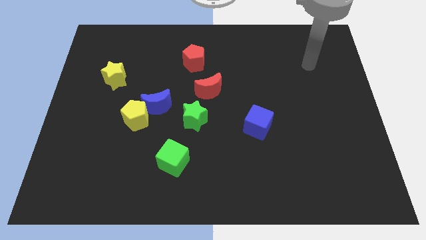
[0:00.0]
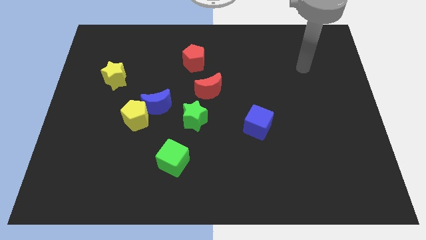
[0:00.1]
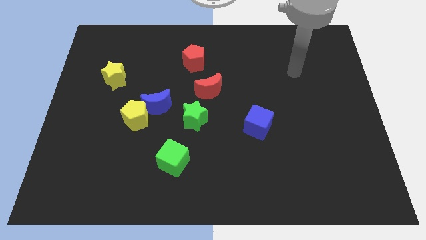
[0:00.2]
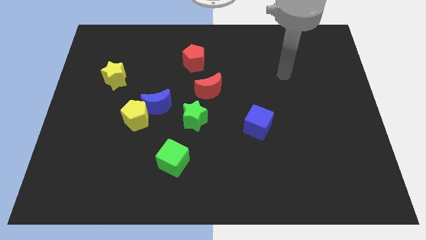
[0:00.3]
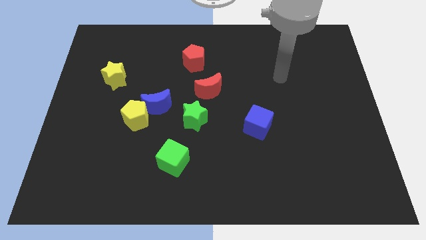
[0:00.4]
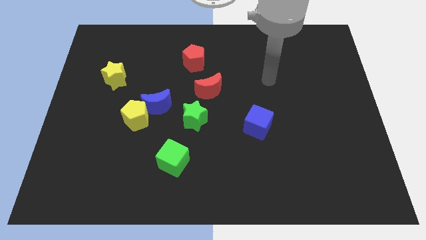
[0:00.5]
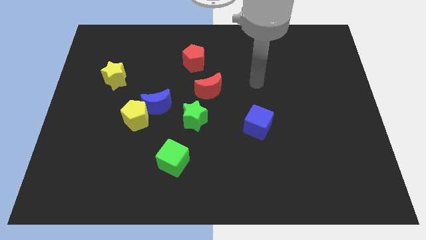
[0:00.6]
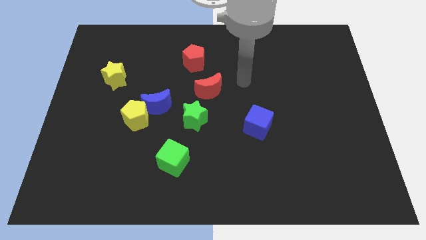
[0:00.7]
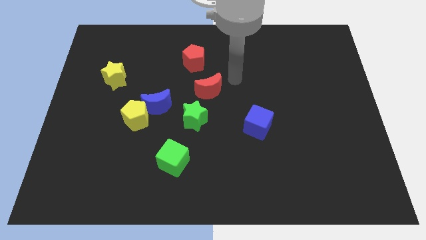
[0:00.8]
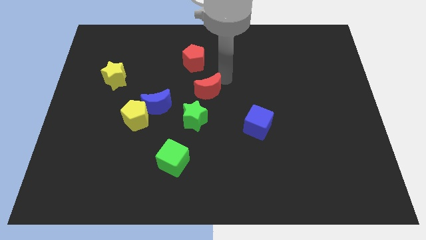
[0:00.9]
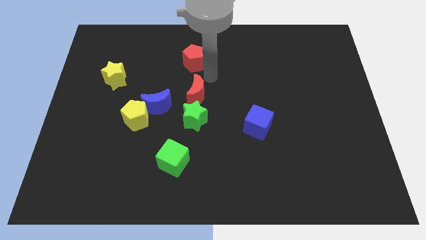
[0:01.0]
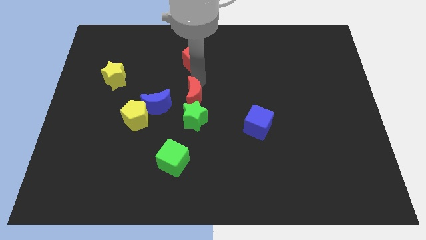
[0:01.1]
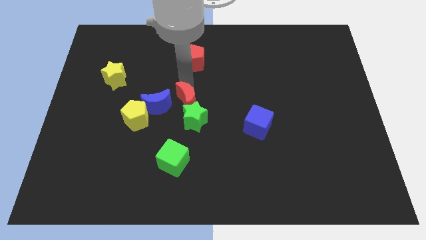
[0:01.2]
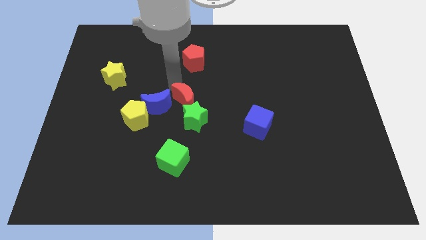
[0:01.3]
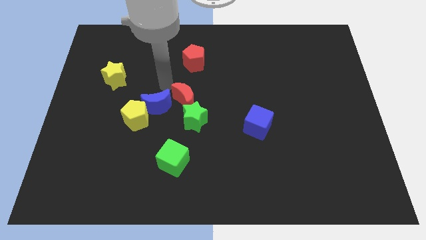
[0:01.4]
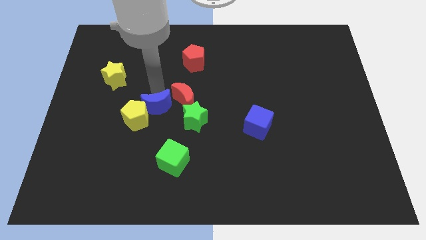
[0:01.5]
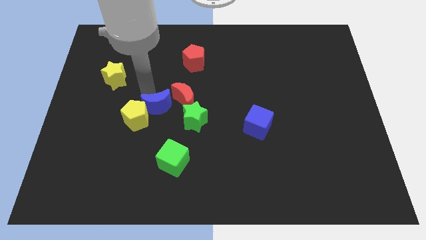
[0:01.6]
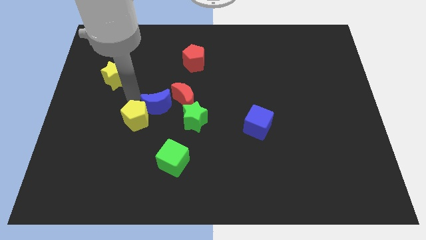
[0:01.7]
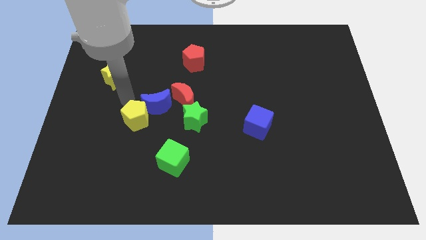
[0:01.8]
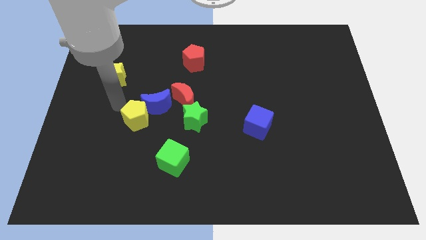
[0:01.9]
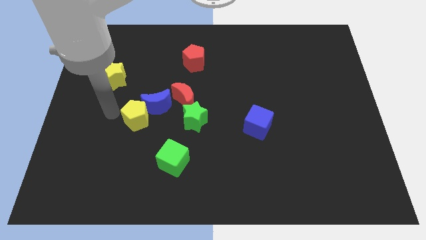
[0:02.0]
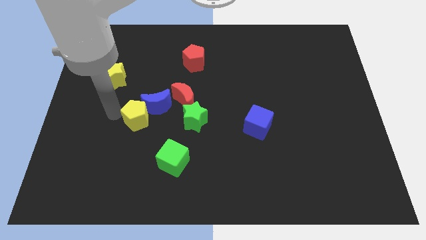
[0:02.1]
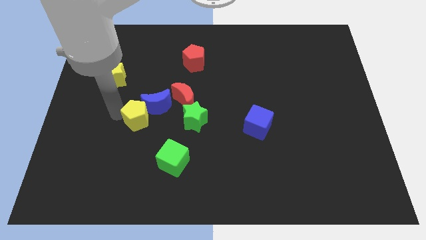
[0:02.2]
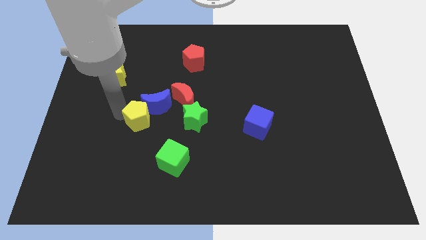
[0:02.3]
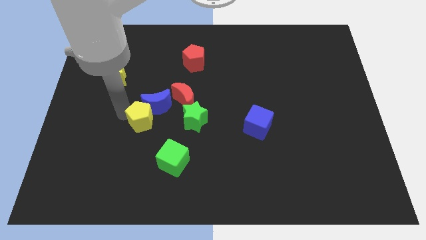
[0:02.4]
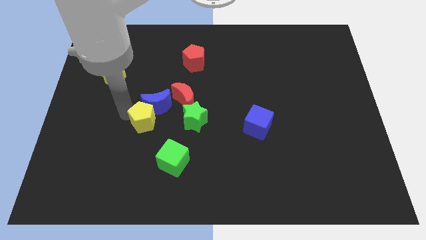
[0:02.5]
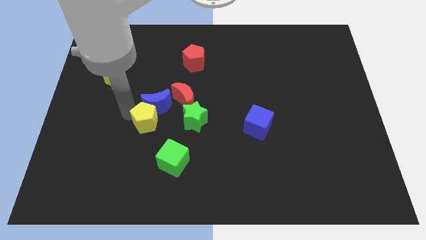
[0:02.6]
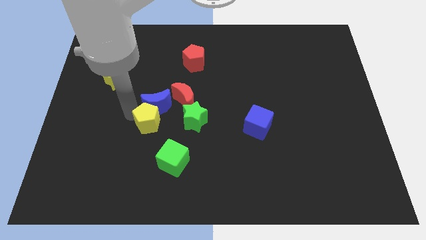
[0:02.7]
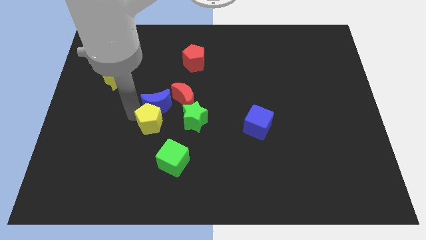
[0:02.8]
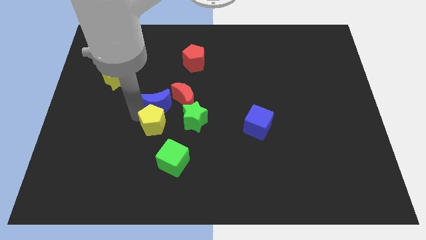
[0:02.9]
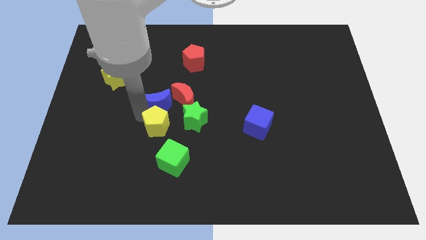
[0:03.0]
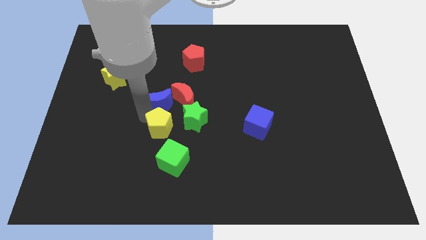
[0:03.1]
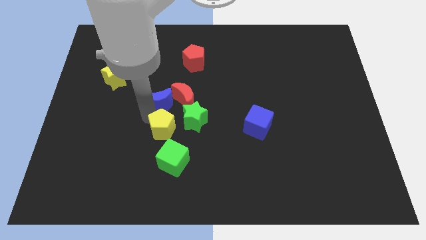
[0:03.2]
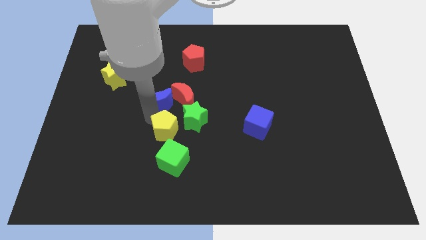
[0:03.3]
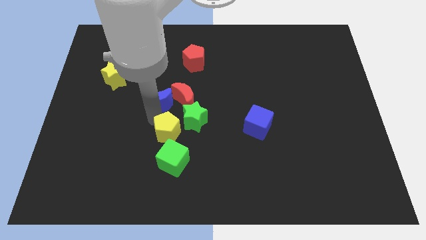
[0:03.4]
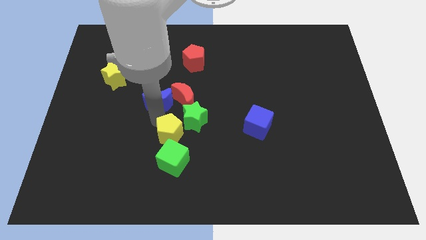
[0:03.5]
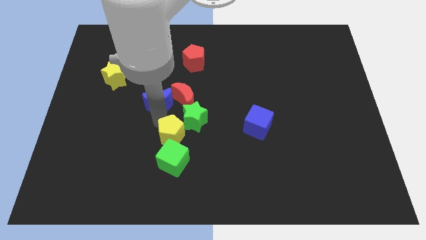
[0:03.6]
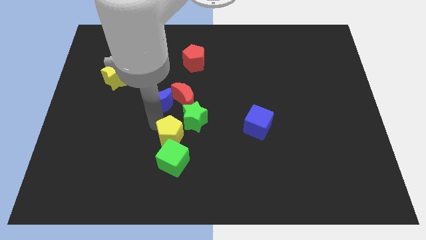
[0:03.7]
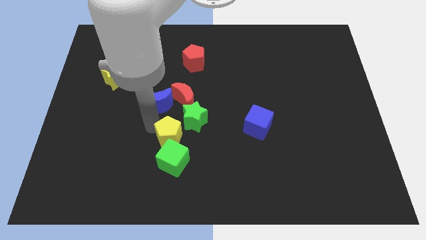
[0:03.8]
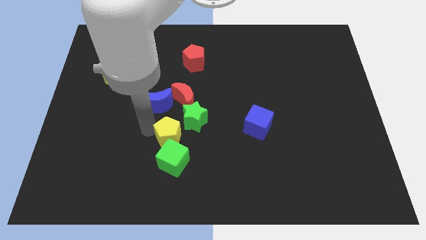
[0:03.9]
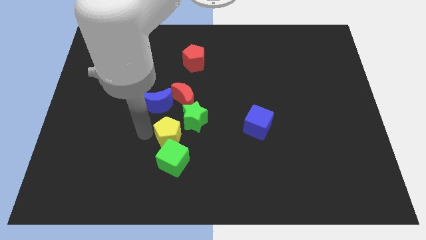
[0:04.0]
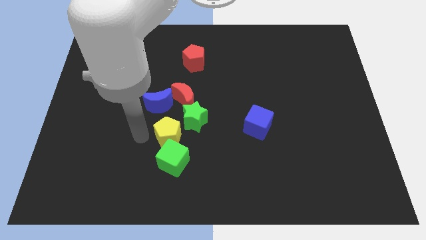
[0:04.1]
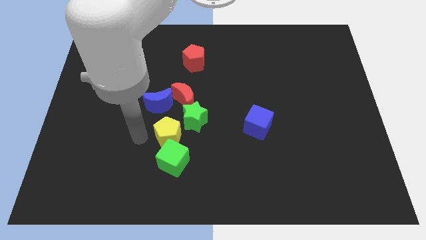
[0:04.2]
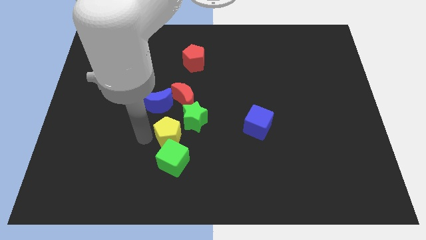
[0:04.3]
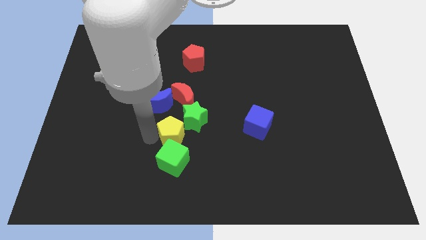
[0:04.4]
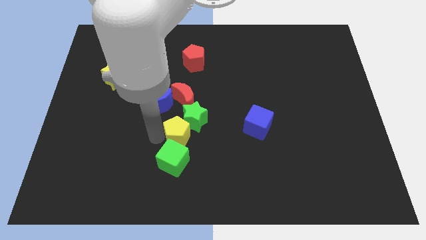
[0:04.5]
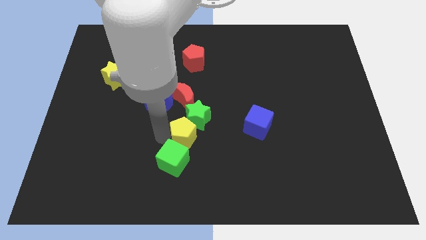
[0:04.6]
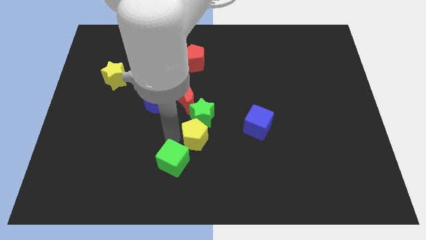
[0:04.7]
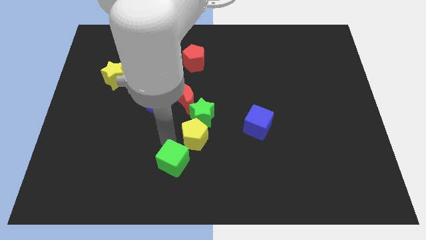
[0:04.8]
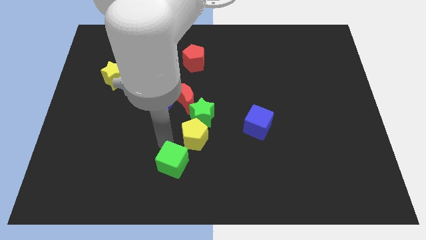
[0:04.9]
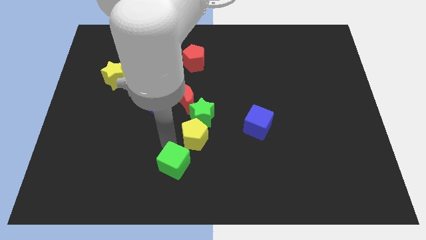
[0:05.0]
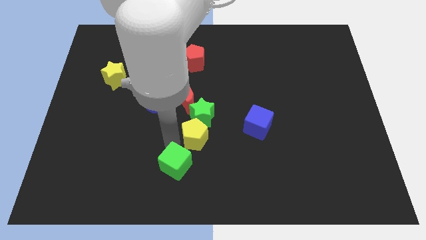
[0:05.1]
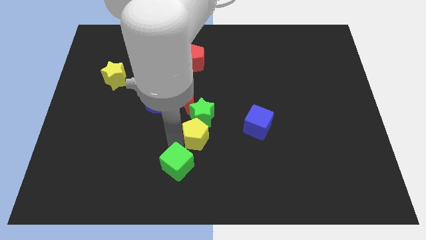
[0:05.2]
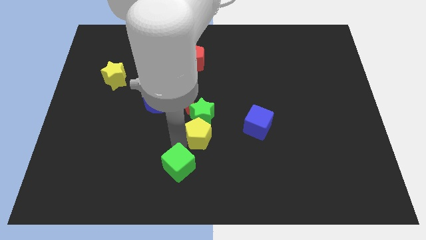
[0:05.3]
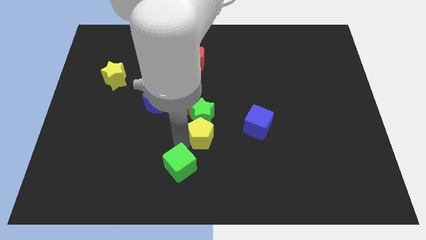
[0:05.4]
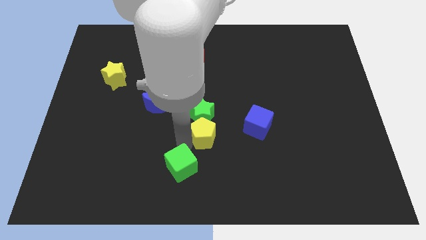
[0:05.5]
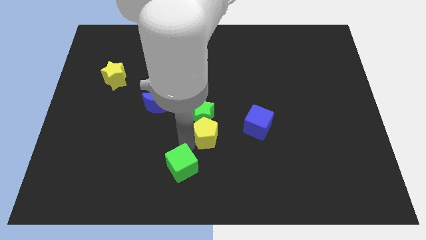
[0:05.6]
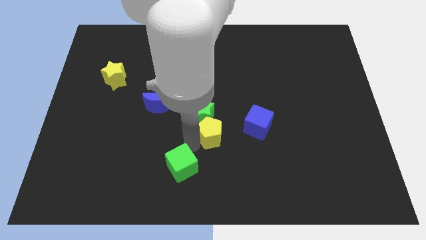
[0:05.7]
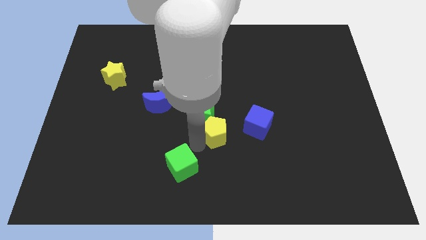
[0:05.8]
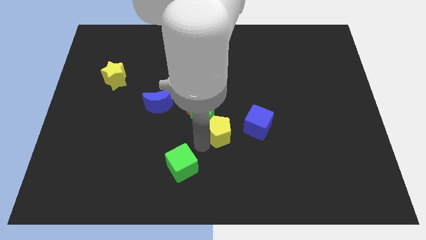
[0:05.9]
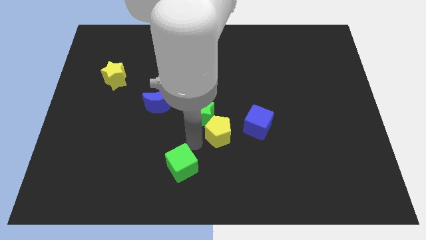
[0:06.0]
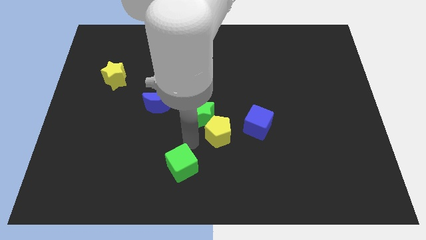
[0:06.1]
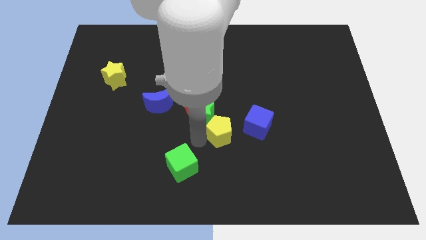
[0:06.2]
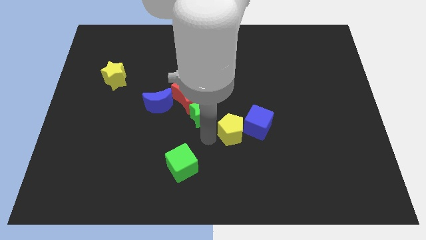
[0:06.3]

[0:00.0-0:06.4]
put the yellow pentagon close to the blue cube
